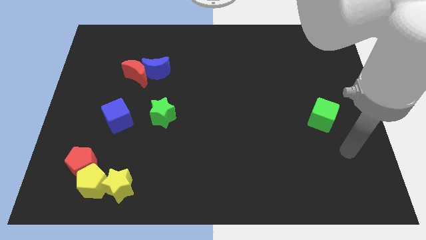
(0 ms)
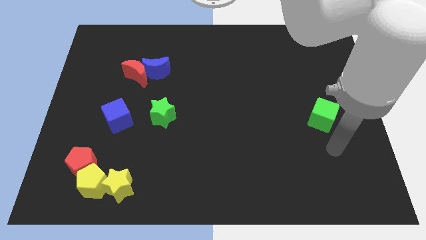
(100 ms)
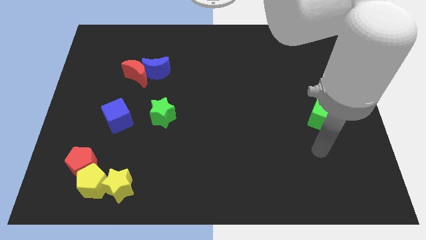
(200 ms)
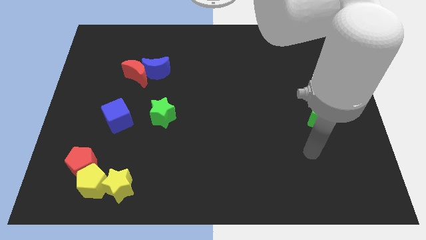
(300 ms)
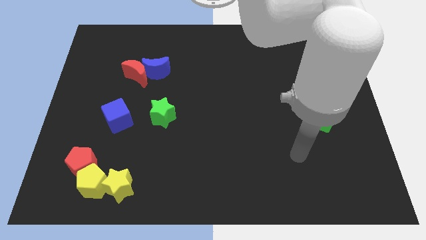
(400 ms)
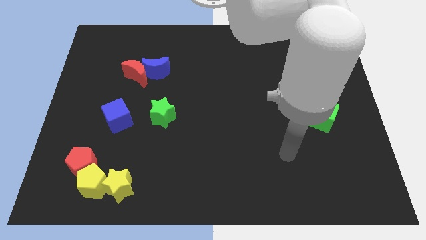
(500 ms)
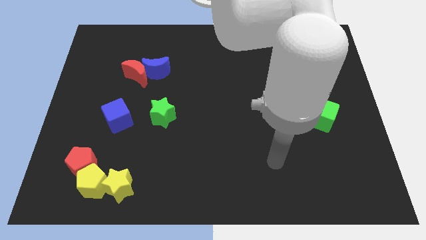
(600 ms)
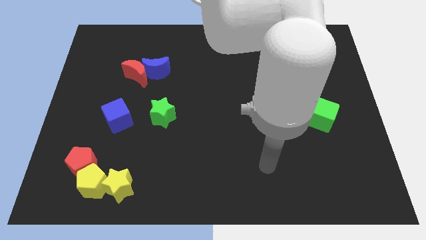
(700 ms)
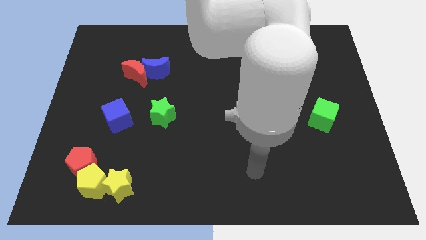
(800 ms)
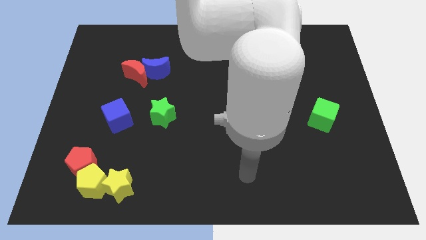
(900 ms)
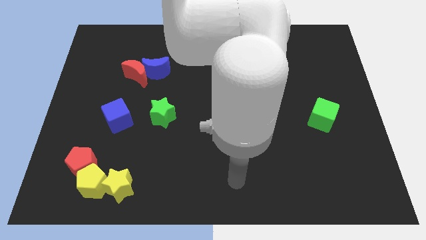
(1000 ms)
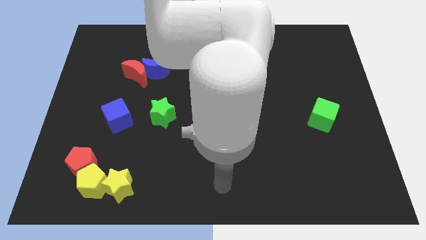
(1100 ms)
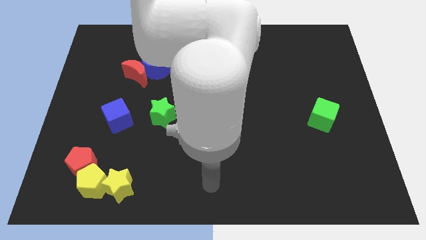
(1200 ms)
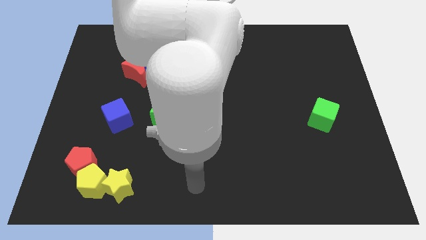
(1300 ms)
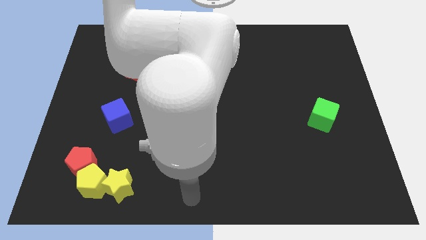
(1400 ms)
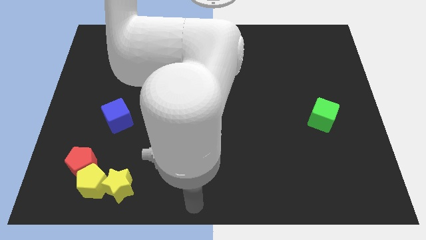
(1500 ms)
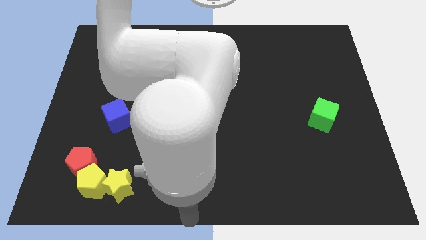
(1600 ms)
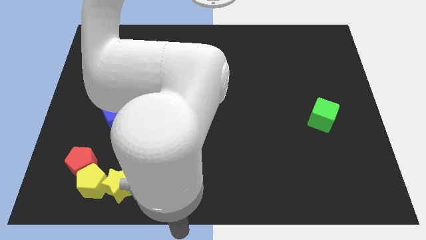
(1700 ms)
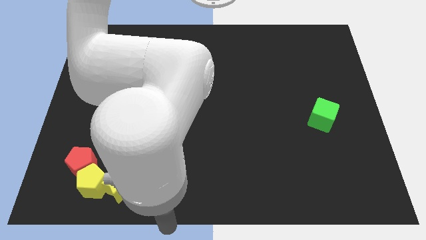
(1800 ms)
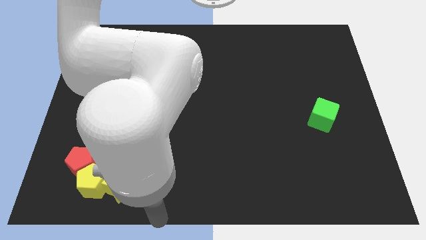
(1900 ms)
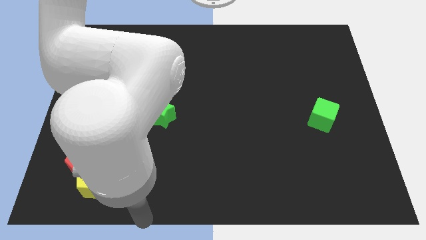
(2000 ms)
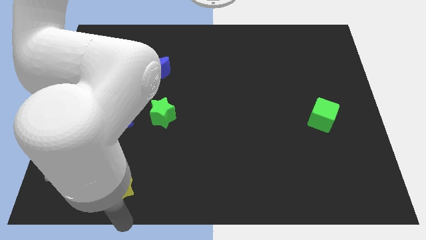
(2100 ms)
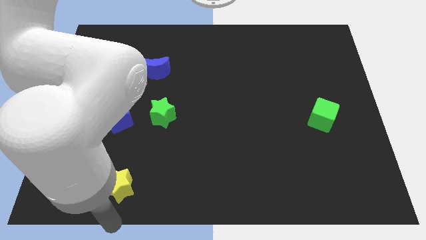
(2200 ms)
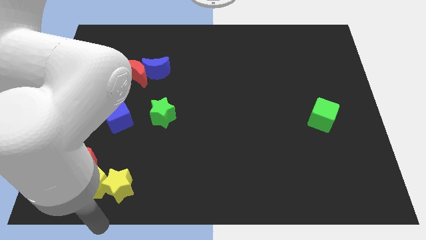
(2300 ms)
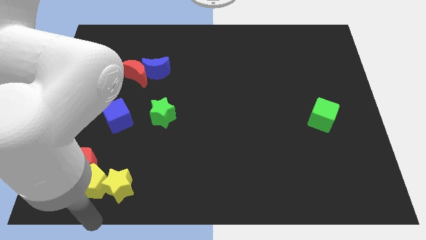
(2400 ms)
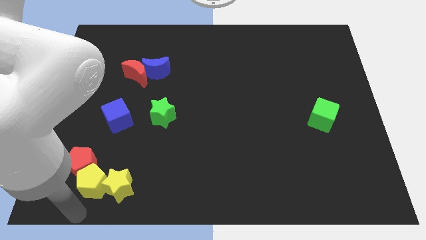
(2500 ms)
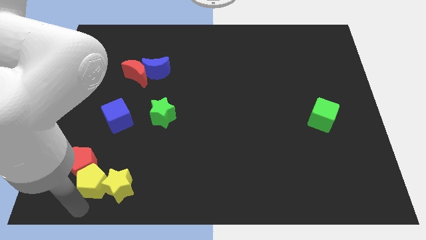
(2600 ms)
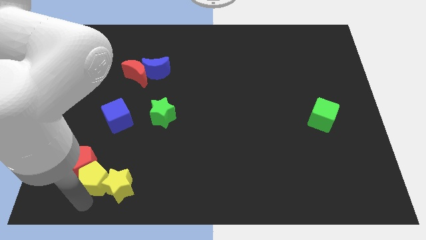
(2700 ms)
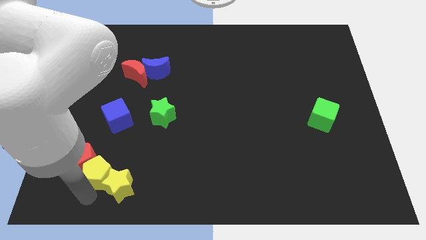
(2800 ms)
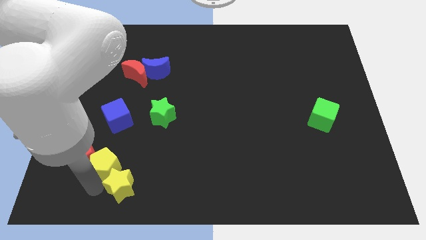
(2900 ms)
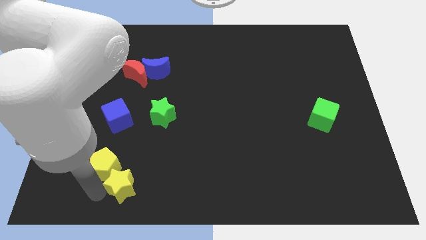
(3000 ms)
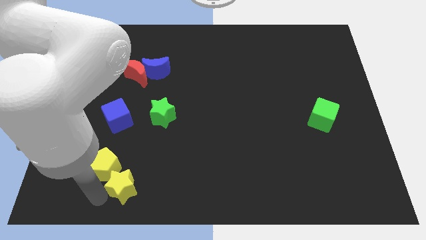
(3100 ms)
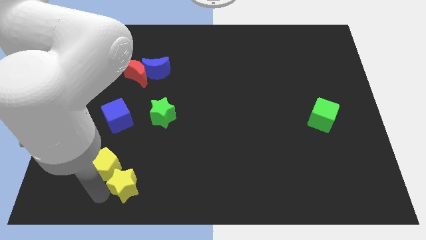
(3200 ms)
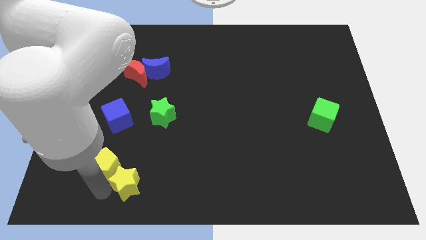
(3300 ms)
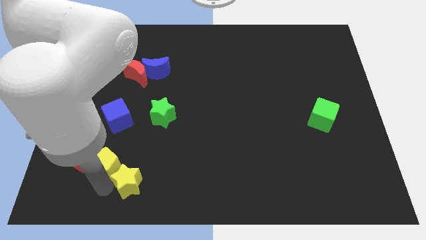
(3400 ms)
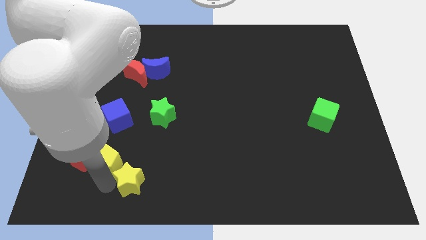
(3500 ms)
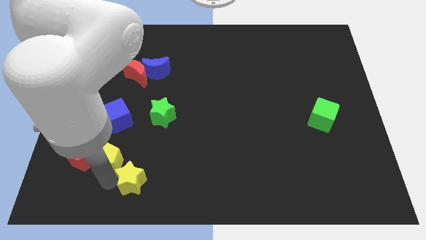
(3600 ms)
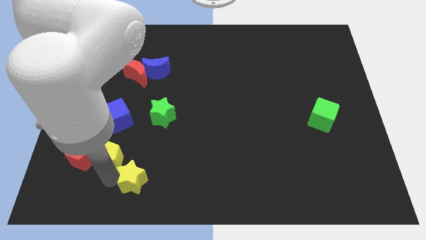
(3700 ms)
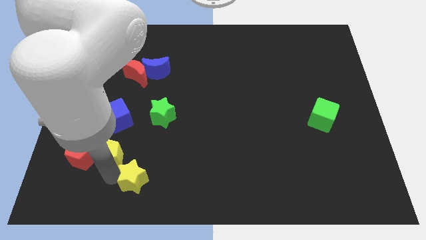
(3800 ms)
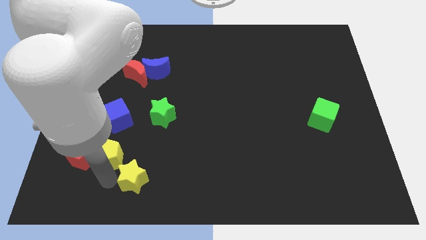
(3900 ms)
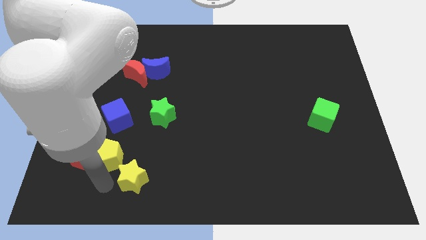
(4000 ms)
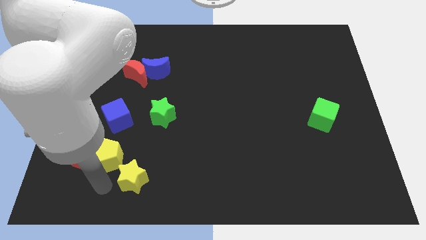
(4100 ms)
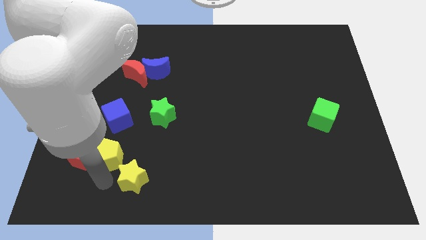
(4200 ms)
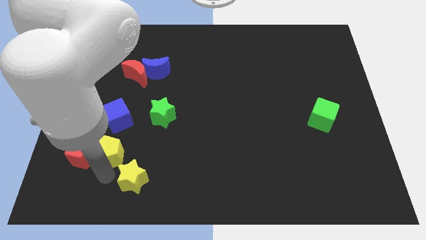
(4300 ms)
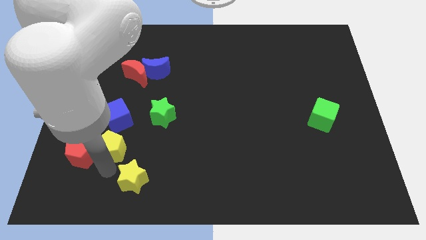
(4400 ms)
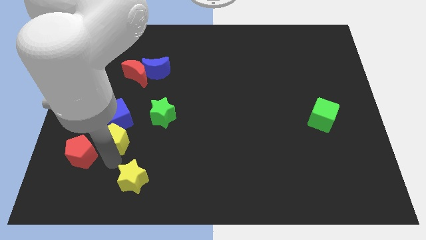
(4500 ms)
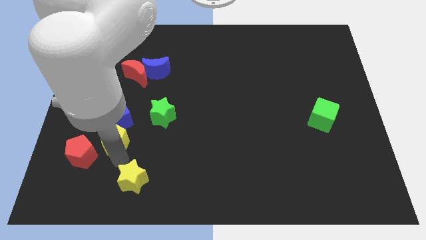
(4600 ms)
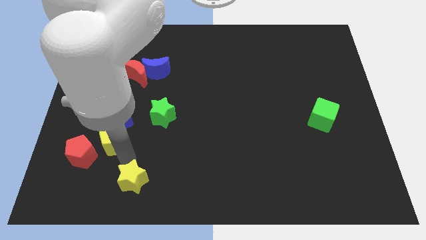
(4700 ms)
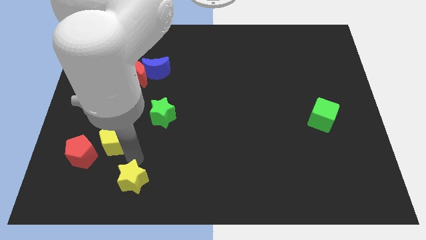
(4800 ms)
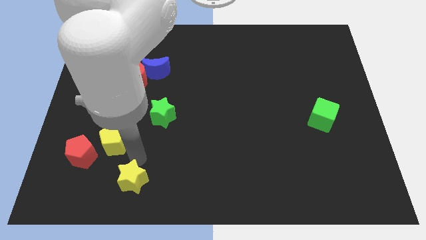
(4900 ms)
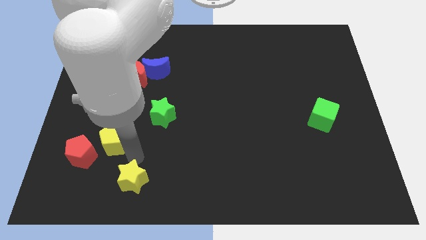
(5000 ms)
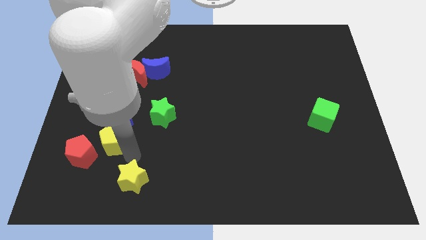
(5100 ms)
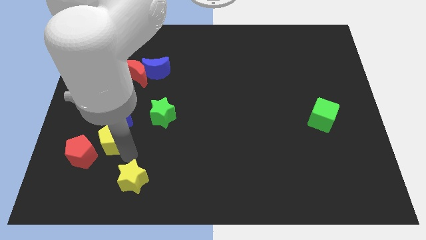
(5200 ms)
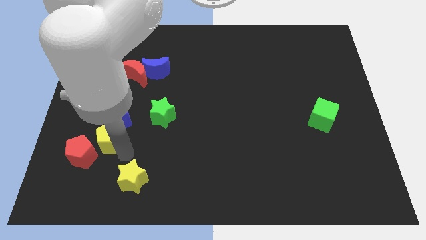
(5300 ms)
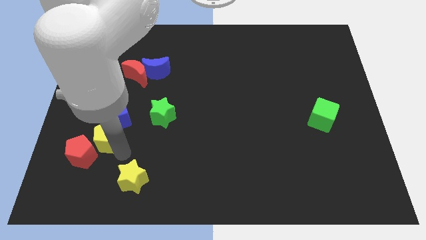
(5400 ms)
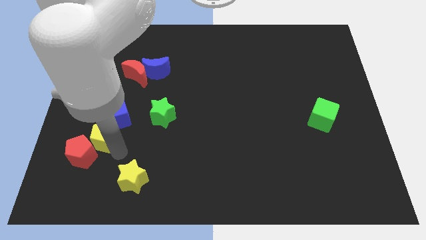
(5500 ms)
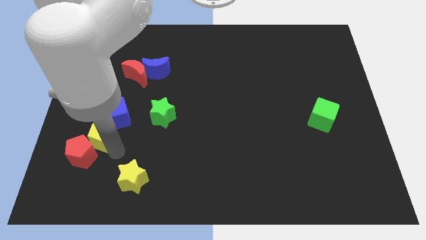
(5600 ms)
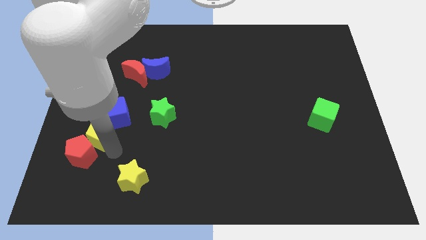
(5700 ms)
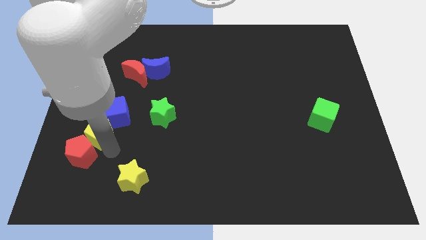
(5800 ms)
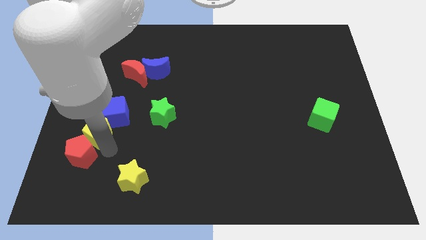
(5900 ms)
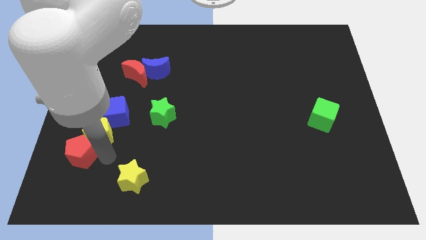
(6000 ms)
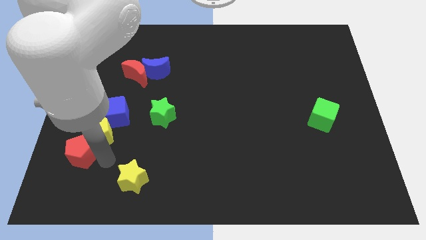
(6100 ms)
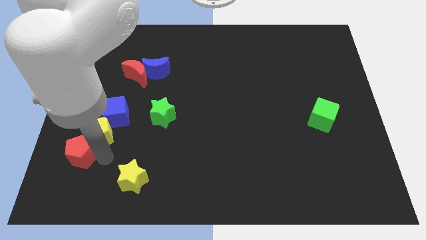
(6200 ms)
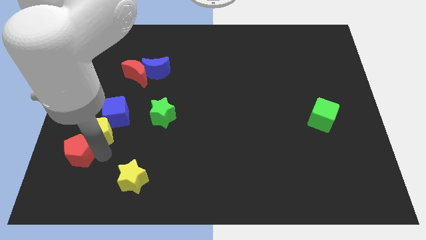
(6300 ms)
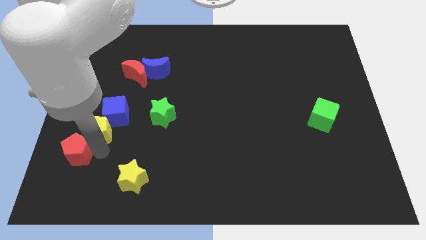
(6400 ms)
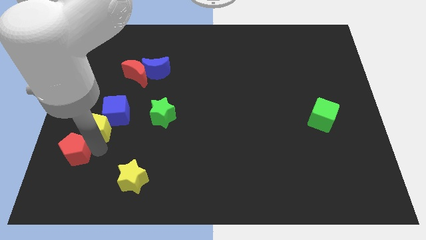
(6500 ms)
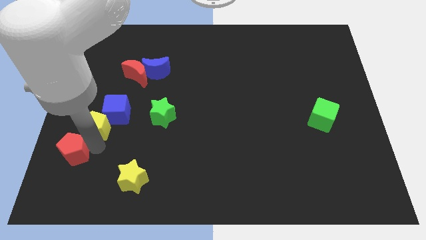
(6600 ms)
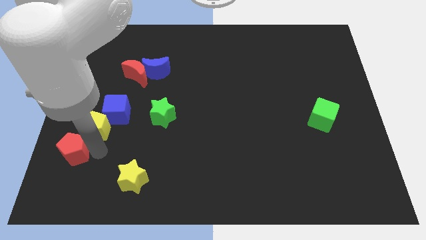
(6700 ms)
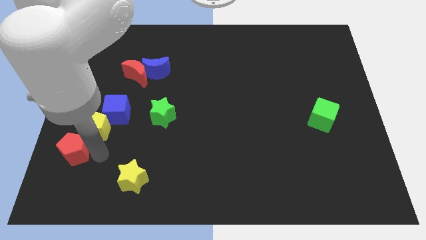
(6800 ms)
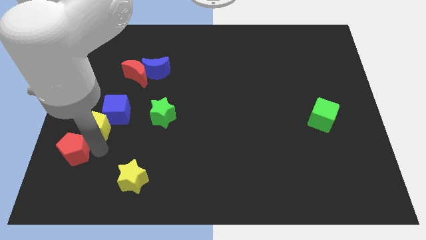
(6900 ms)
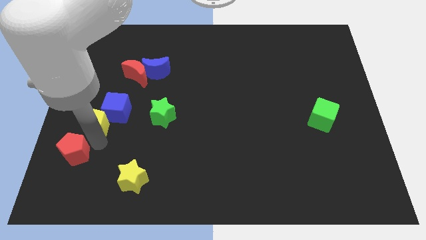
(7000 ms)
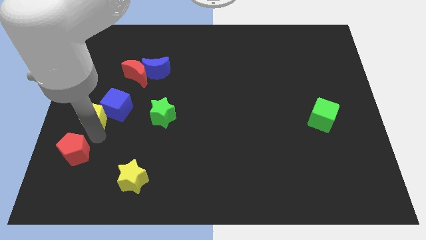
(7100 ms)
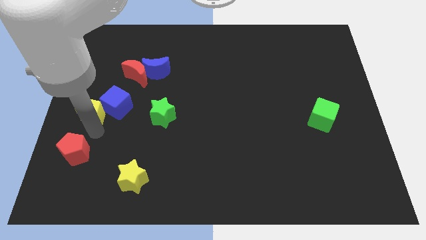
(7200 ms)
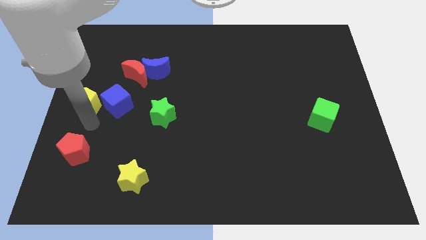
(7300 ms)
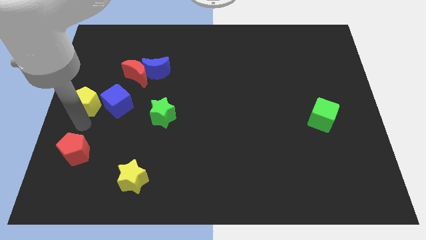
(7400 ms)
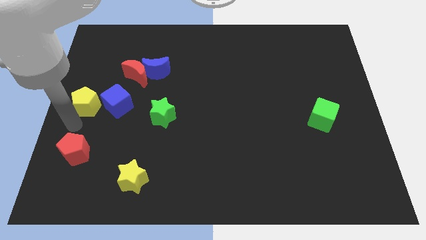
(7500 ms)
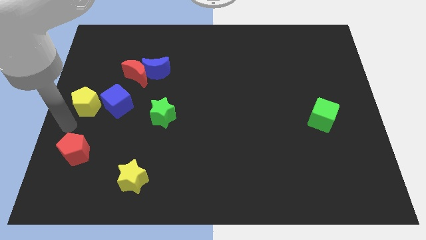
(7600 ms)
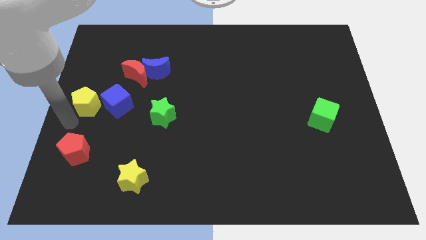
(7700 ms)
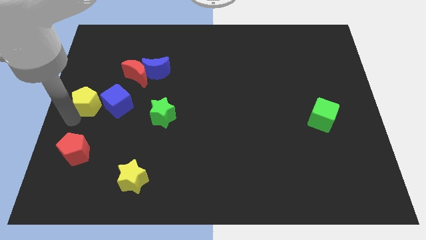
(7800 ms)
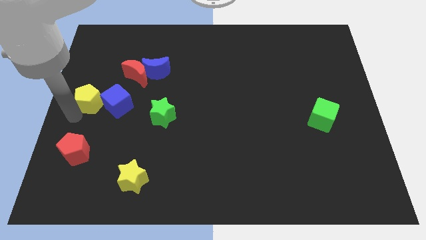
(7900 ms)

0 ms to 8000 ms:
move the yellow pentagon upwards

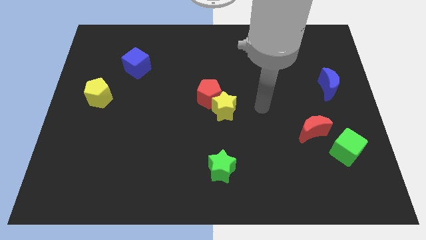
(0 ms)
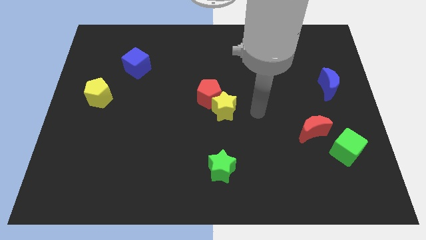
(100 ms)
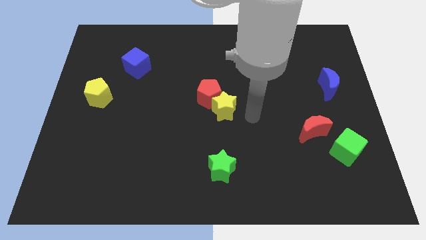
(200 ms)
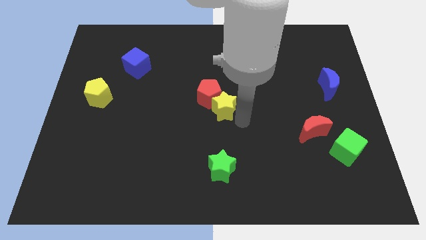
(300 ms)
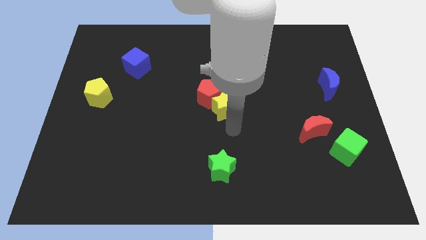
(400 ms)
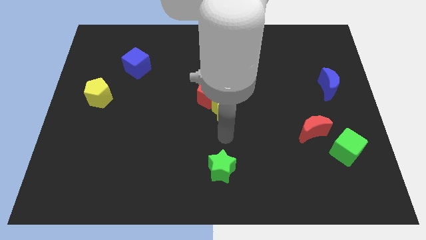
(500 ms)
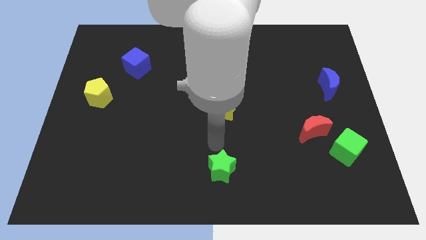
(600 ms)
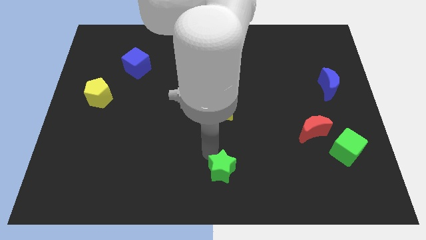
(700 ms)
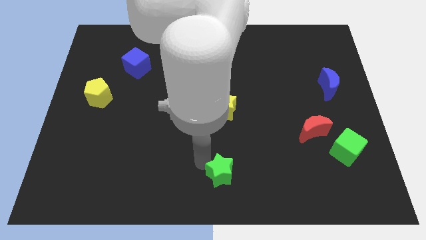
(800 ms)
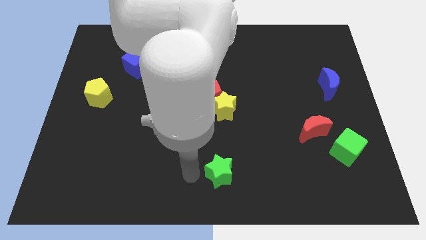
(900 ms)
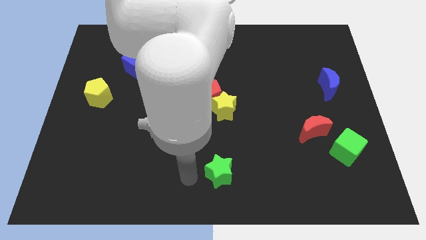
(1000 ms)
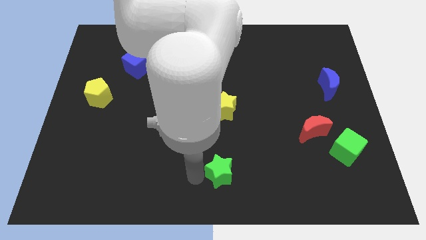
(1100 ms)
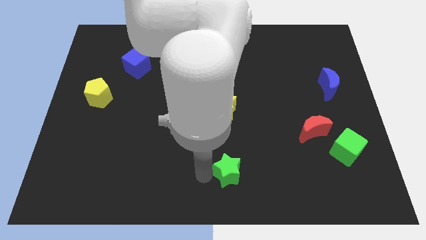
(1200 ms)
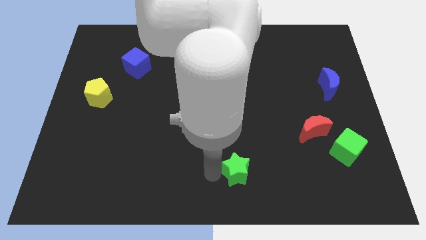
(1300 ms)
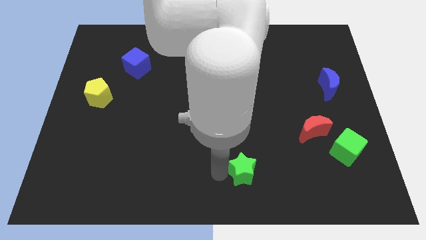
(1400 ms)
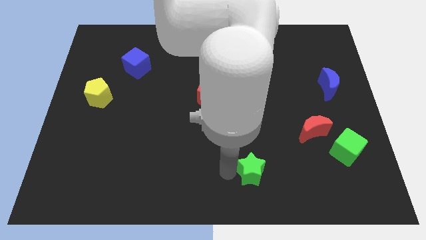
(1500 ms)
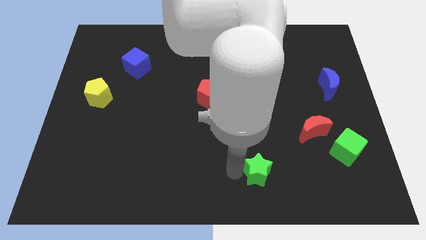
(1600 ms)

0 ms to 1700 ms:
push the green star to the right slightly
